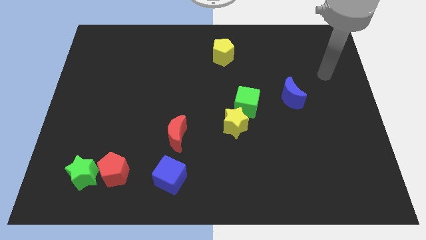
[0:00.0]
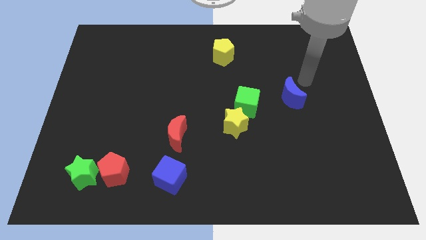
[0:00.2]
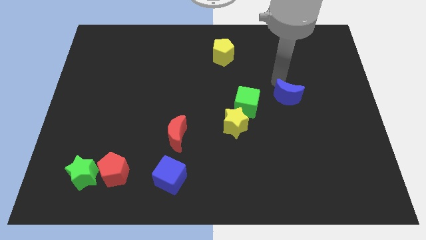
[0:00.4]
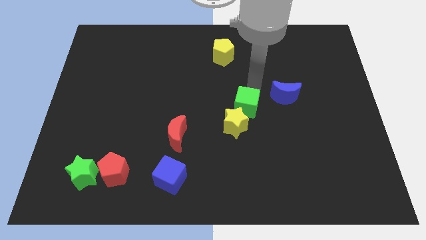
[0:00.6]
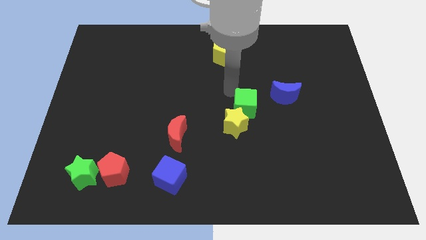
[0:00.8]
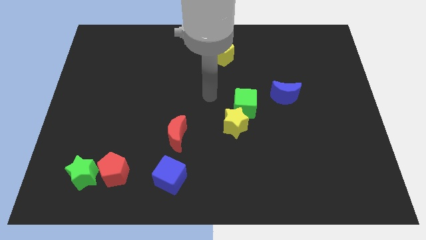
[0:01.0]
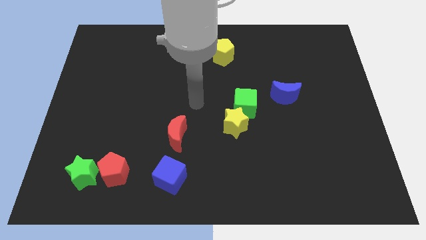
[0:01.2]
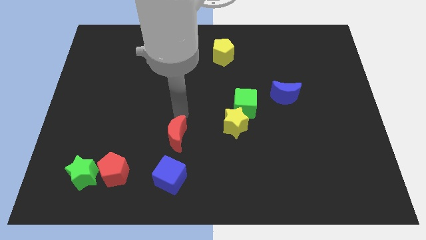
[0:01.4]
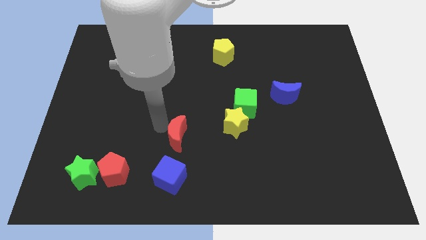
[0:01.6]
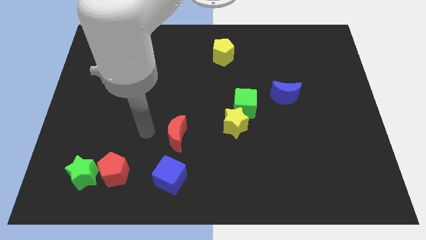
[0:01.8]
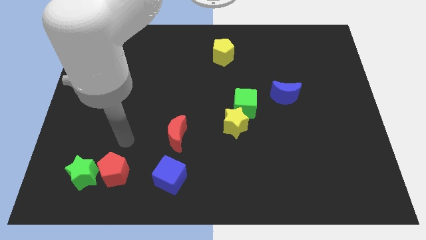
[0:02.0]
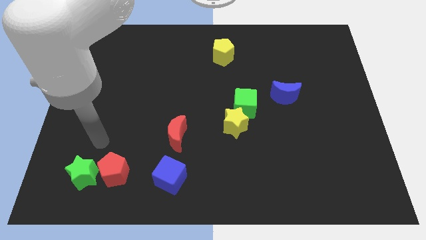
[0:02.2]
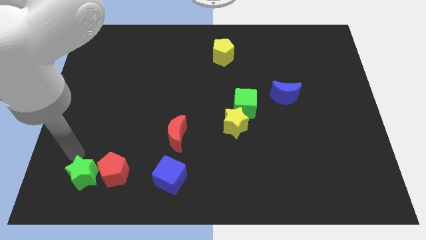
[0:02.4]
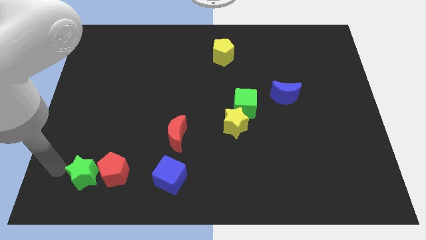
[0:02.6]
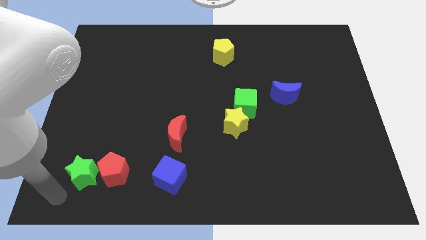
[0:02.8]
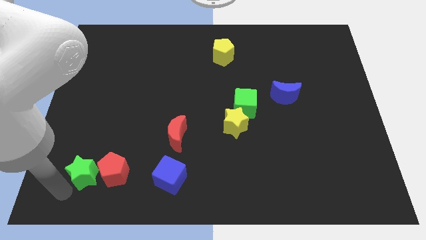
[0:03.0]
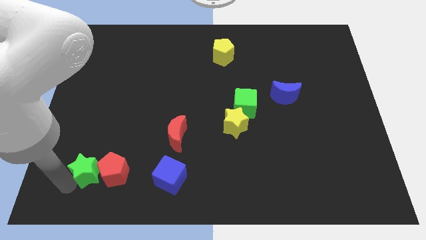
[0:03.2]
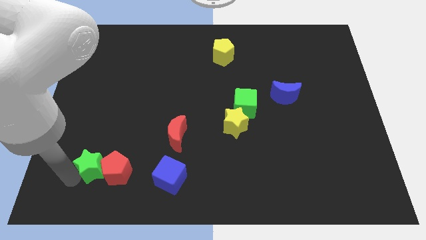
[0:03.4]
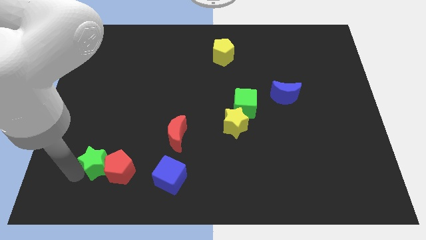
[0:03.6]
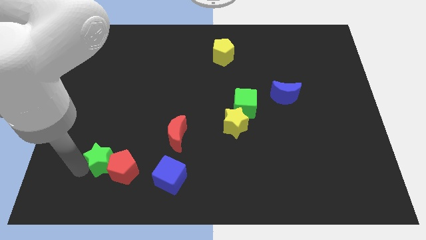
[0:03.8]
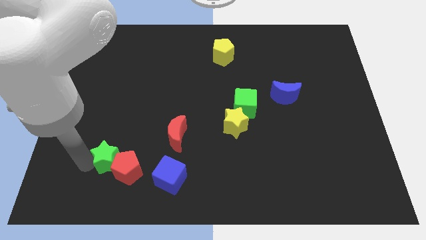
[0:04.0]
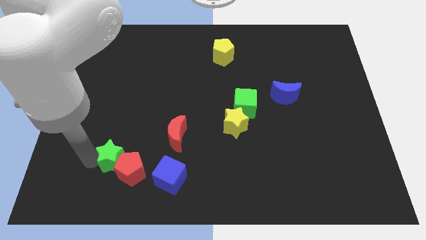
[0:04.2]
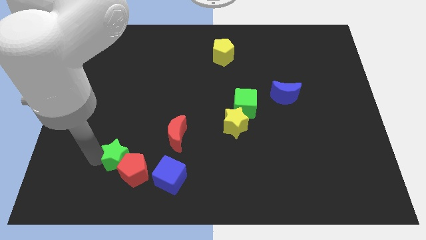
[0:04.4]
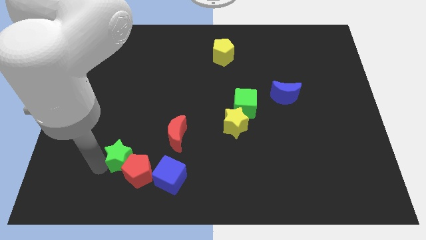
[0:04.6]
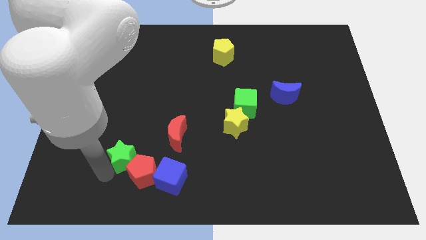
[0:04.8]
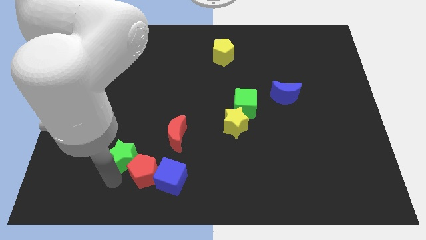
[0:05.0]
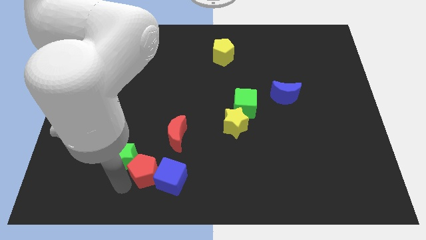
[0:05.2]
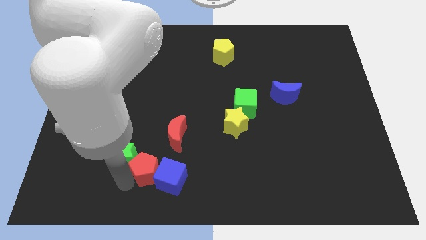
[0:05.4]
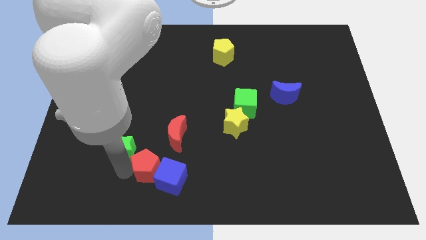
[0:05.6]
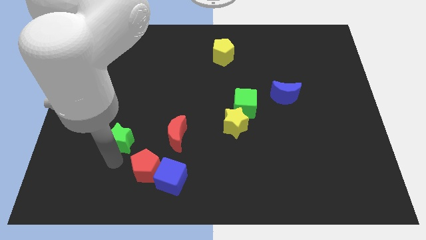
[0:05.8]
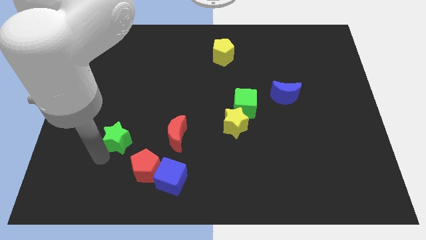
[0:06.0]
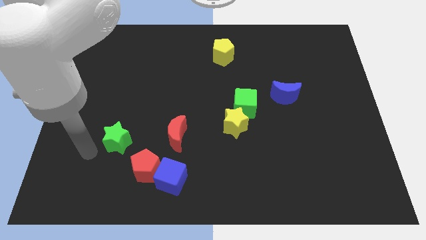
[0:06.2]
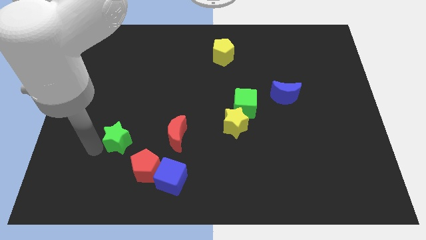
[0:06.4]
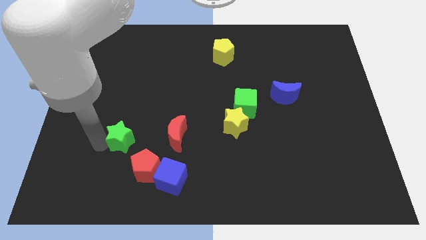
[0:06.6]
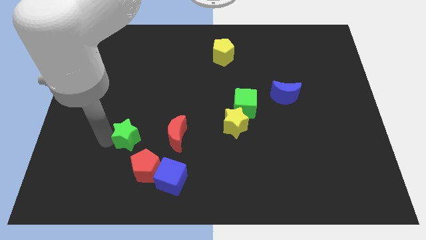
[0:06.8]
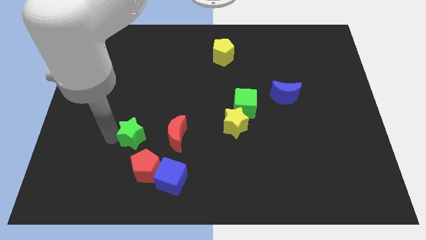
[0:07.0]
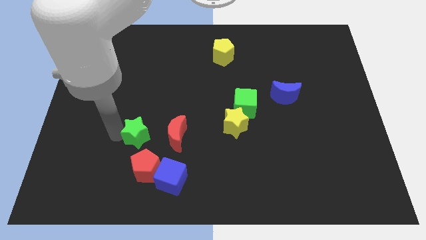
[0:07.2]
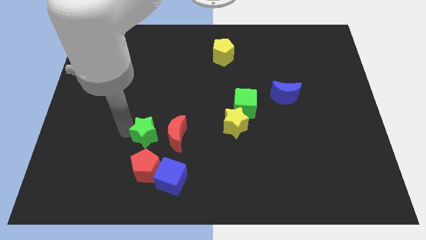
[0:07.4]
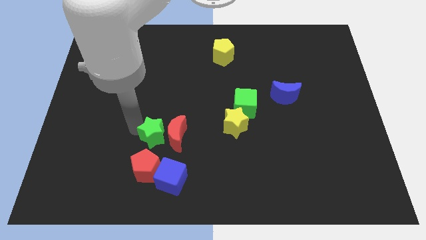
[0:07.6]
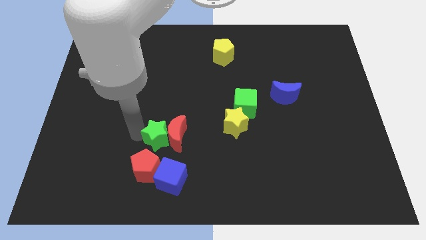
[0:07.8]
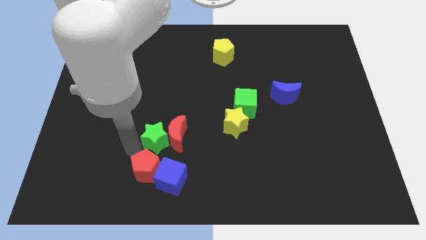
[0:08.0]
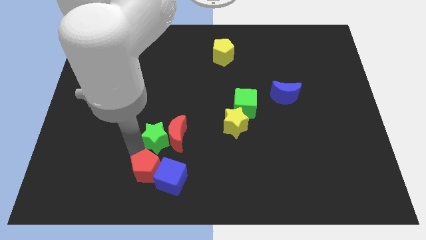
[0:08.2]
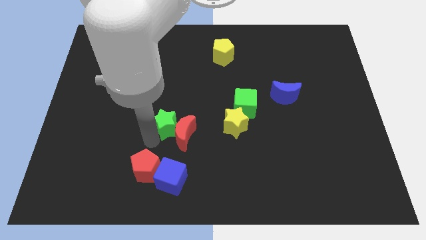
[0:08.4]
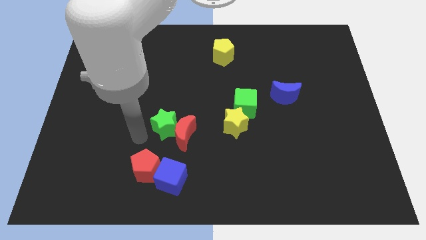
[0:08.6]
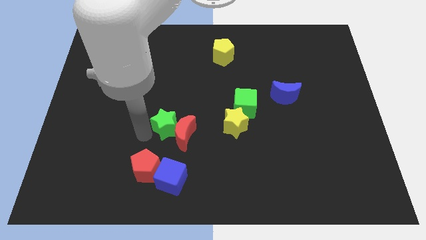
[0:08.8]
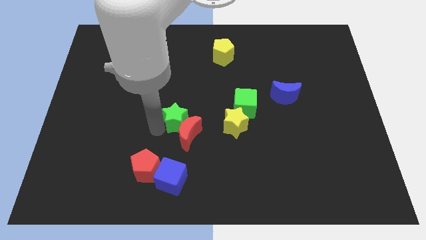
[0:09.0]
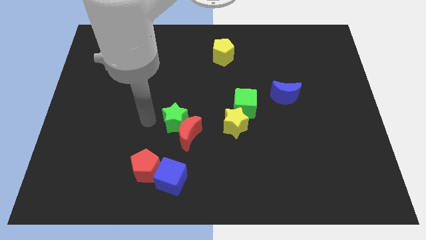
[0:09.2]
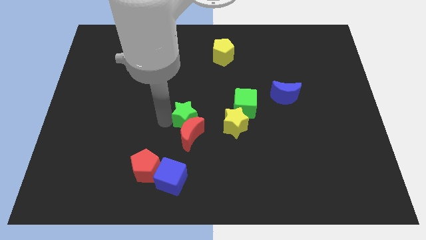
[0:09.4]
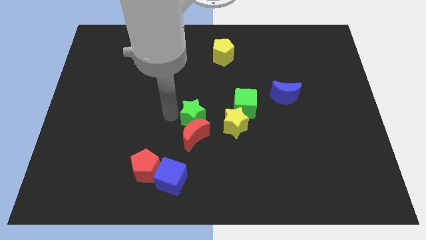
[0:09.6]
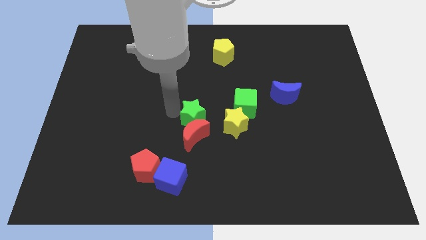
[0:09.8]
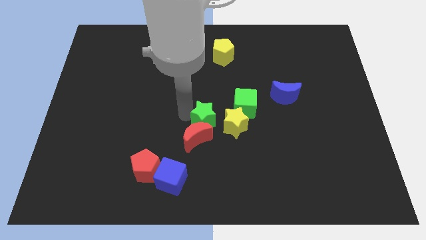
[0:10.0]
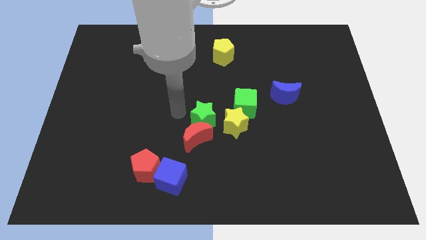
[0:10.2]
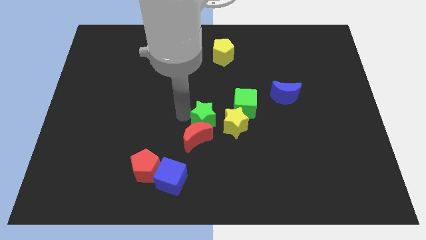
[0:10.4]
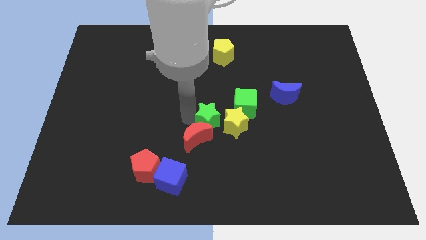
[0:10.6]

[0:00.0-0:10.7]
move the green star next to the yellow star

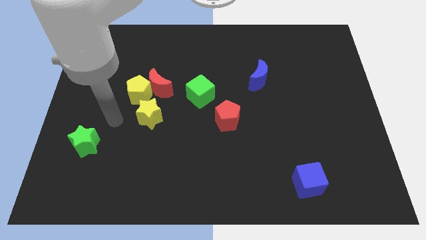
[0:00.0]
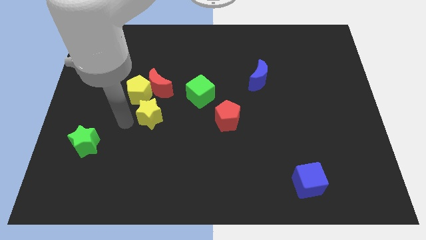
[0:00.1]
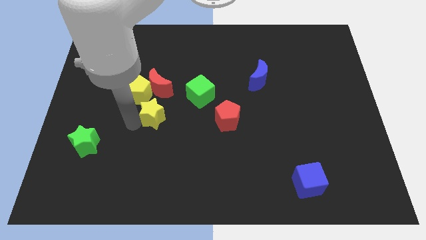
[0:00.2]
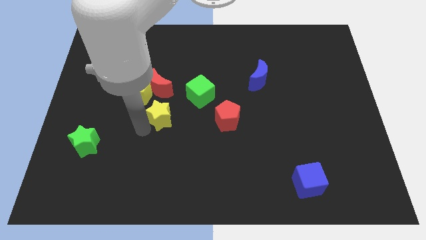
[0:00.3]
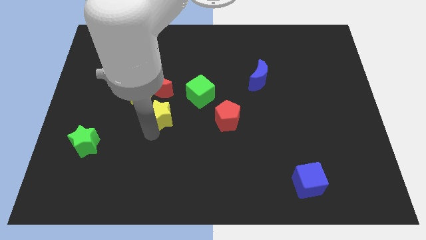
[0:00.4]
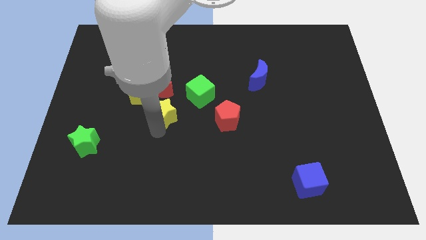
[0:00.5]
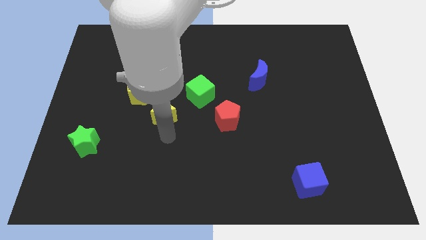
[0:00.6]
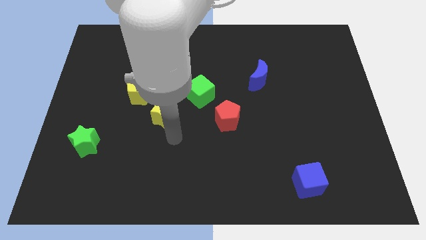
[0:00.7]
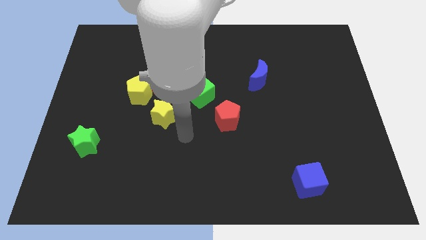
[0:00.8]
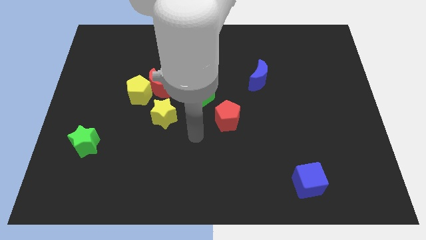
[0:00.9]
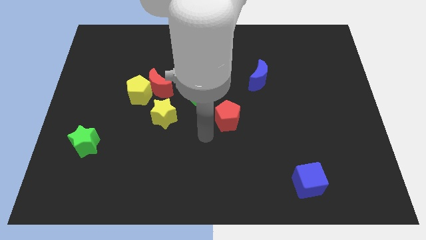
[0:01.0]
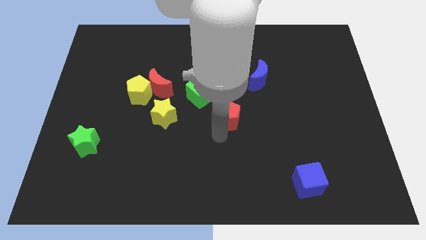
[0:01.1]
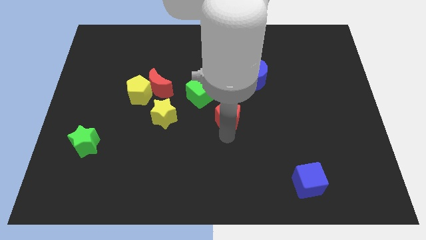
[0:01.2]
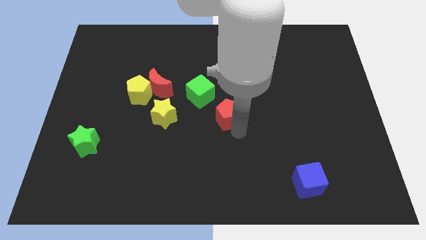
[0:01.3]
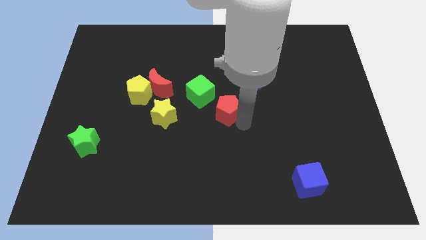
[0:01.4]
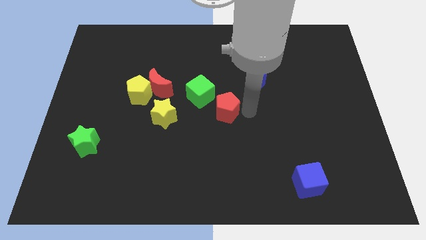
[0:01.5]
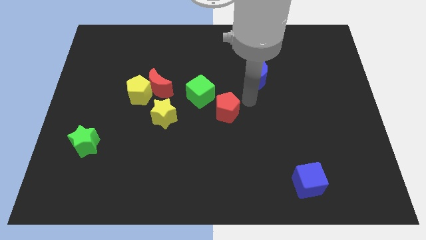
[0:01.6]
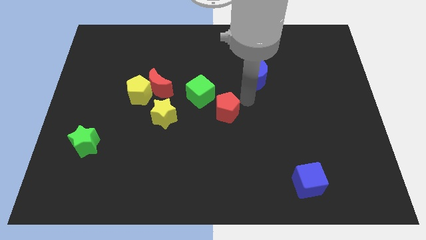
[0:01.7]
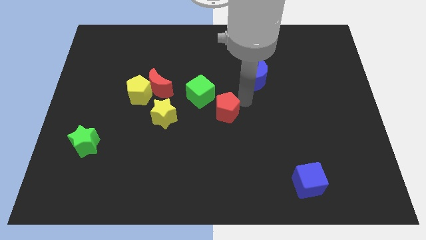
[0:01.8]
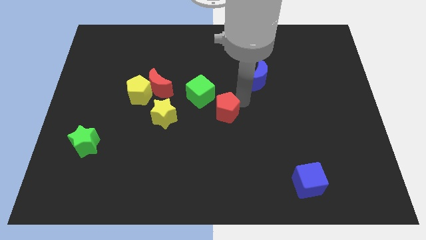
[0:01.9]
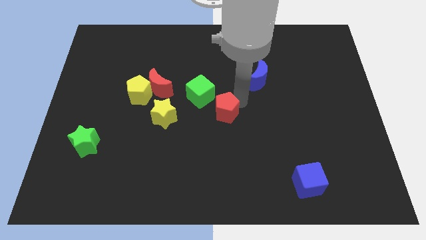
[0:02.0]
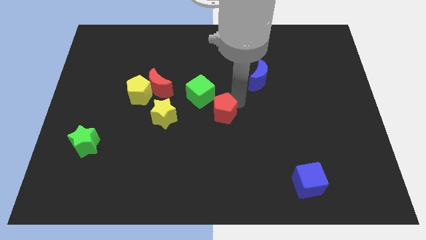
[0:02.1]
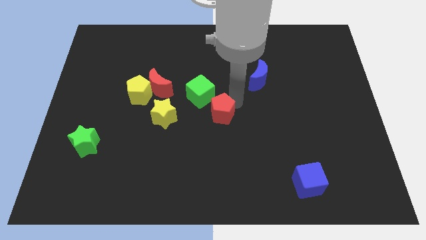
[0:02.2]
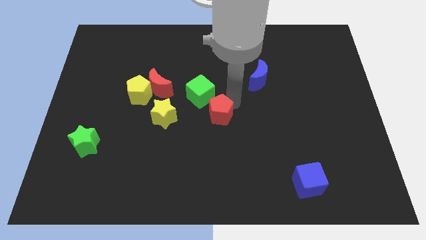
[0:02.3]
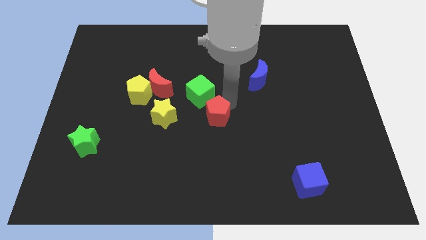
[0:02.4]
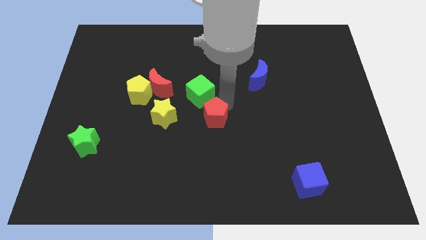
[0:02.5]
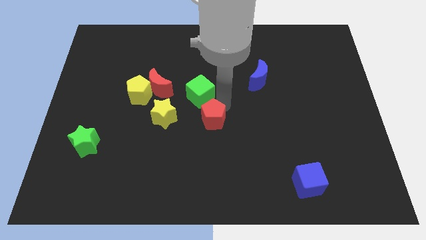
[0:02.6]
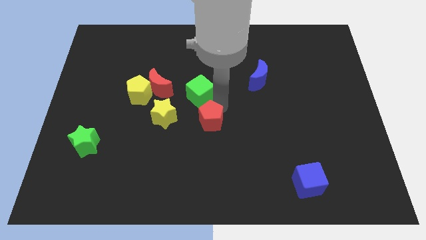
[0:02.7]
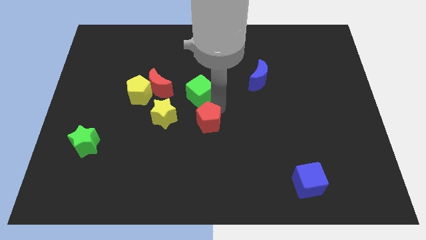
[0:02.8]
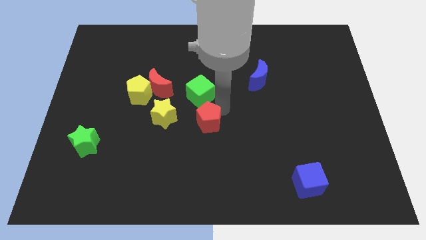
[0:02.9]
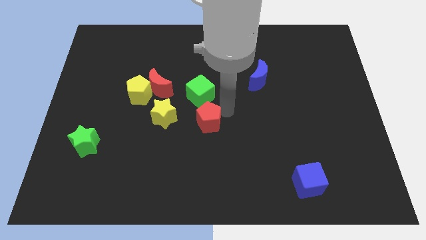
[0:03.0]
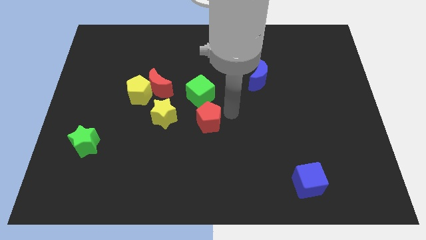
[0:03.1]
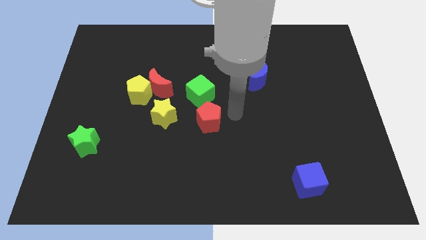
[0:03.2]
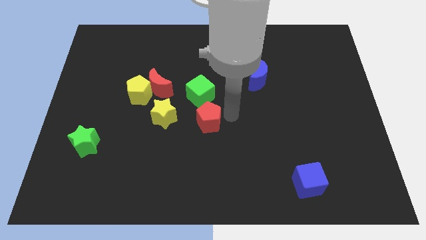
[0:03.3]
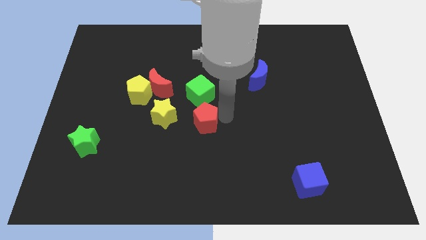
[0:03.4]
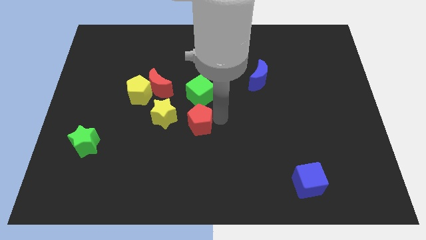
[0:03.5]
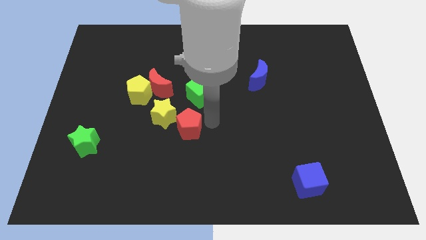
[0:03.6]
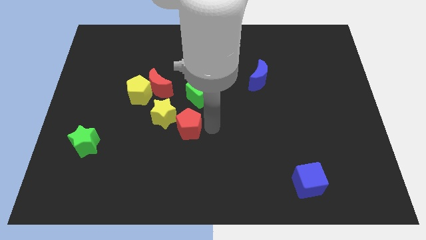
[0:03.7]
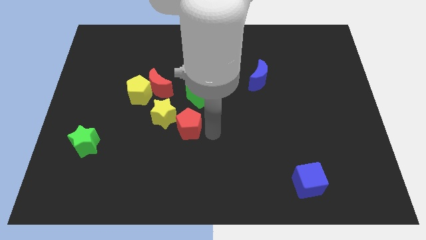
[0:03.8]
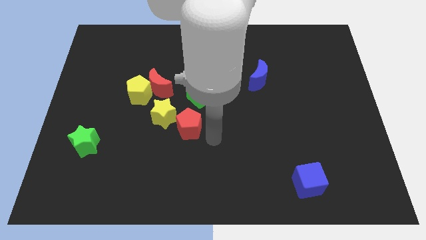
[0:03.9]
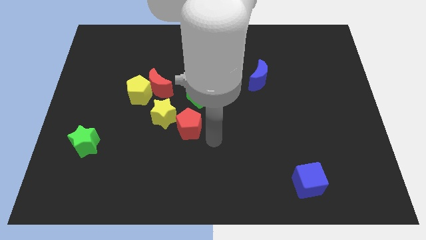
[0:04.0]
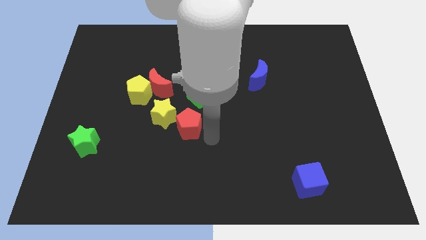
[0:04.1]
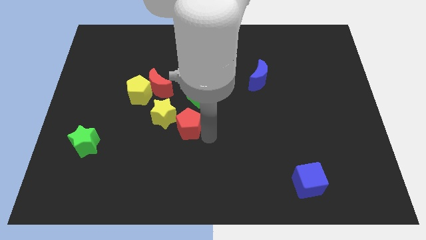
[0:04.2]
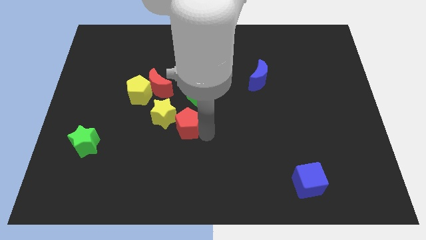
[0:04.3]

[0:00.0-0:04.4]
push the red pentagon next to the yellow star
